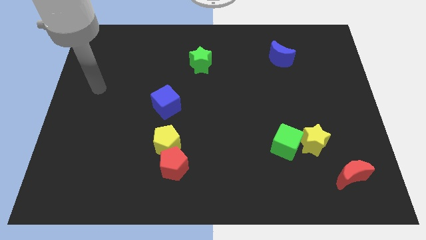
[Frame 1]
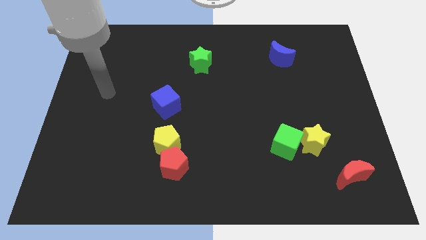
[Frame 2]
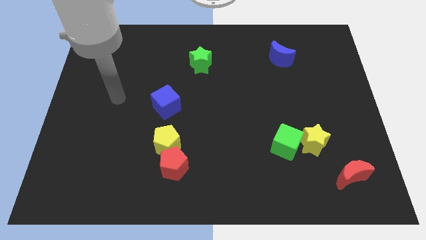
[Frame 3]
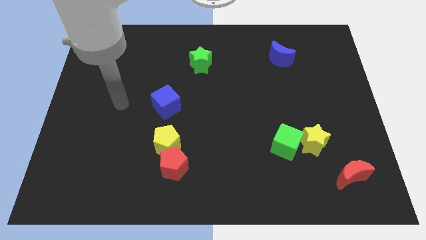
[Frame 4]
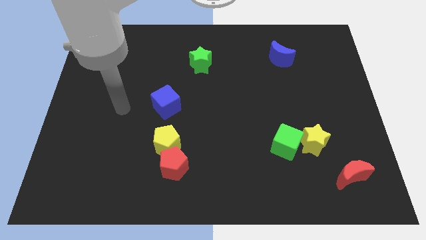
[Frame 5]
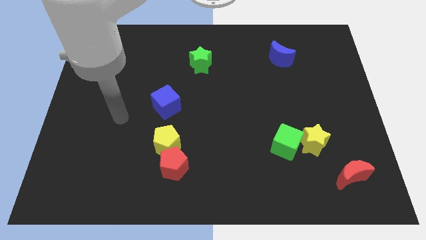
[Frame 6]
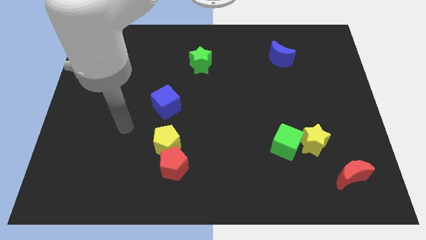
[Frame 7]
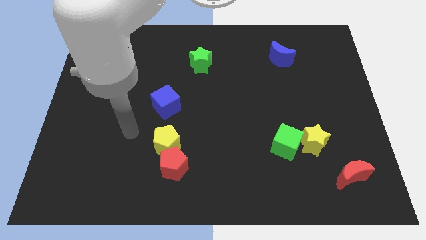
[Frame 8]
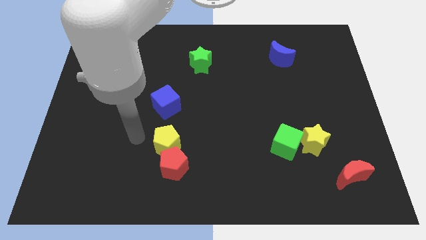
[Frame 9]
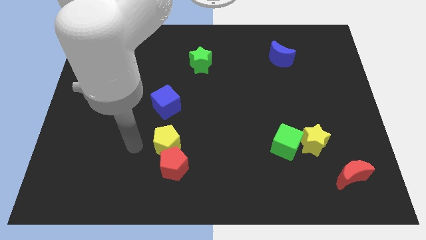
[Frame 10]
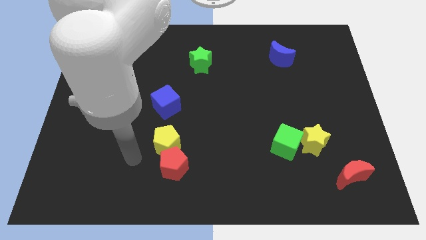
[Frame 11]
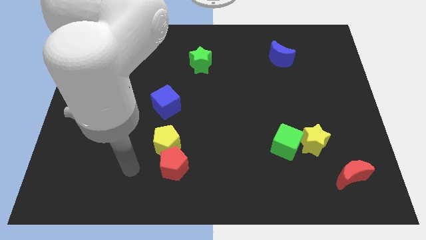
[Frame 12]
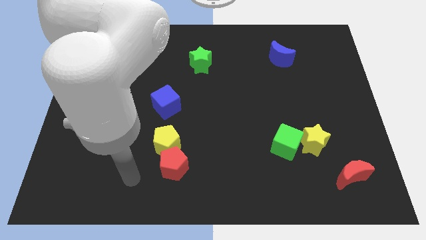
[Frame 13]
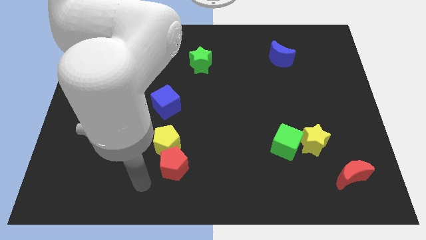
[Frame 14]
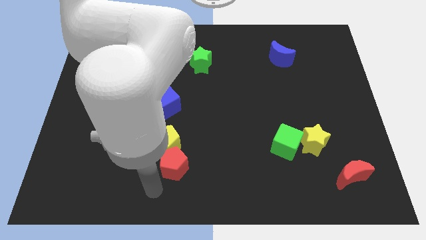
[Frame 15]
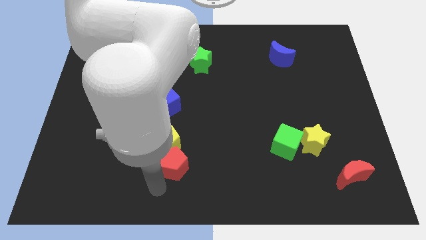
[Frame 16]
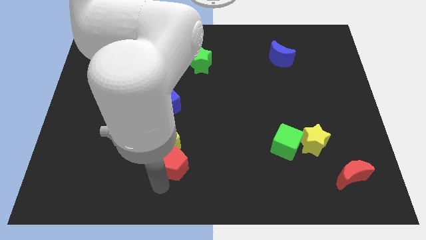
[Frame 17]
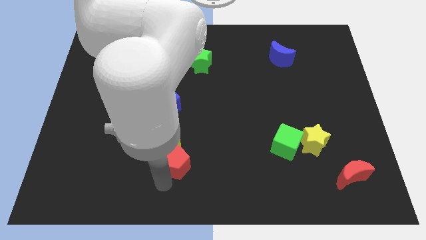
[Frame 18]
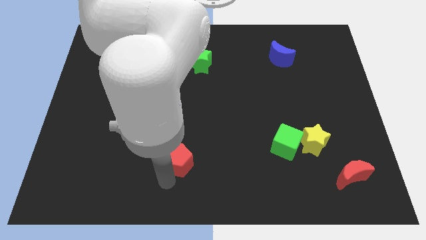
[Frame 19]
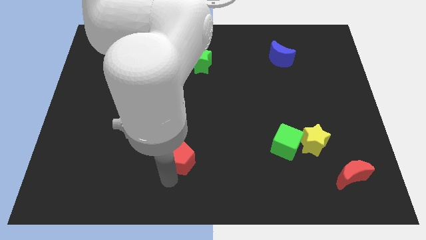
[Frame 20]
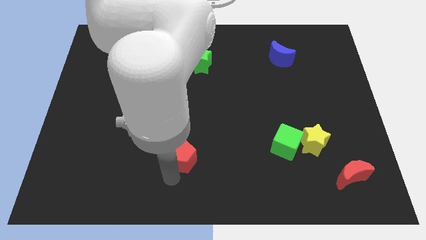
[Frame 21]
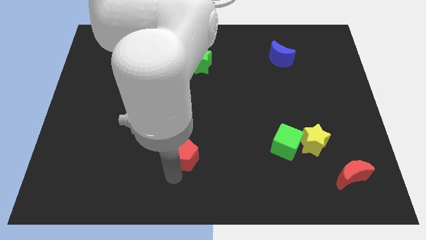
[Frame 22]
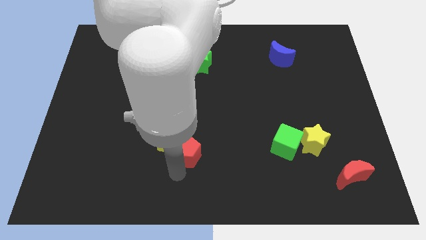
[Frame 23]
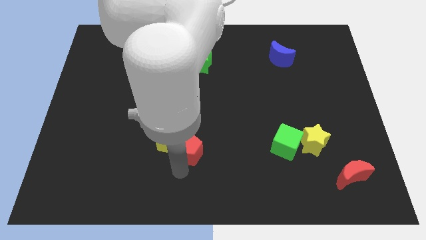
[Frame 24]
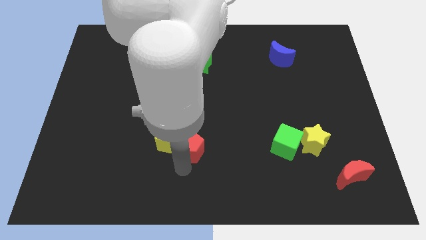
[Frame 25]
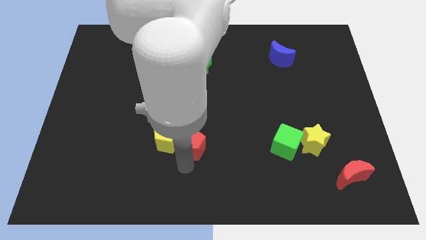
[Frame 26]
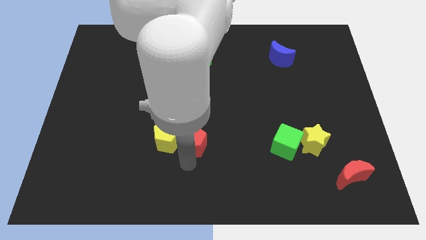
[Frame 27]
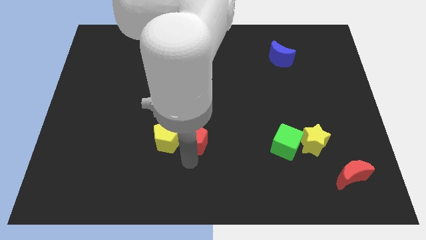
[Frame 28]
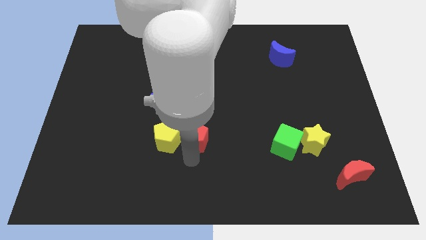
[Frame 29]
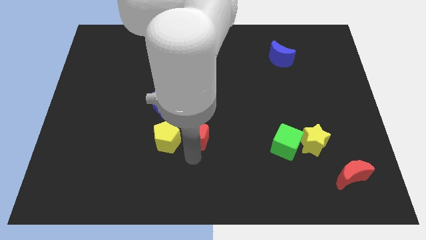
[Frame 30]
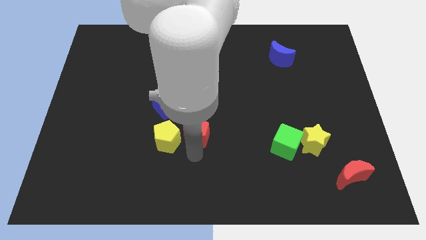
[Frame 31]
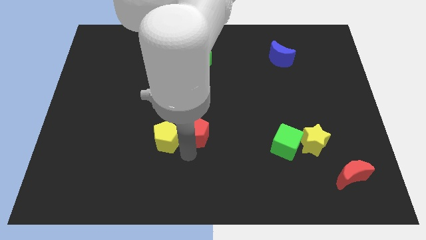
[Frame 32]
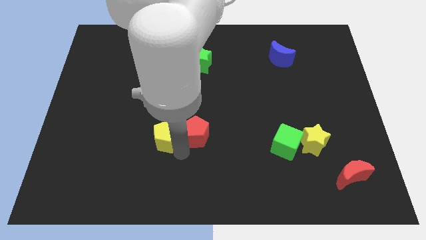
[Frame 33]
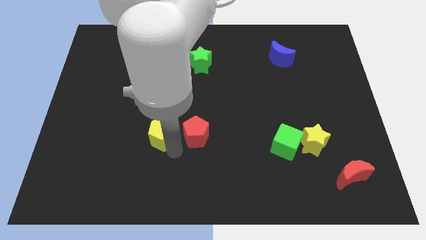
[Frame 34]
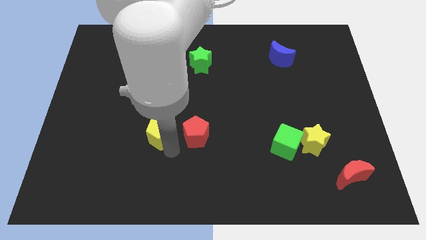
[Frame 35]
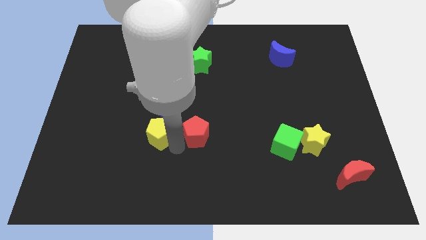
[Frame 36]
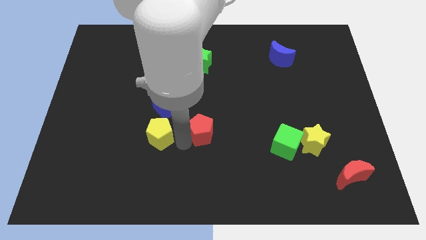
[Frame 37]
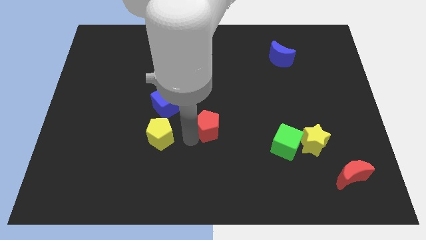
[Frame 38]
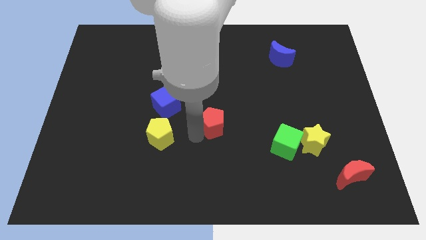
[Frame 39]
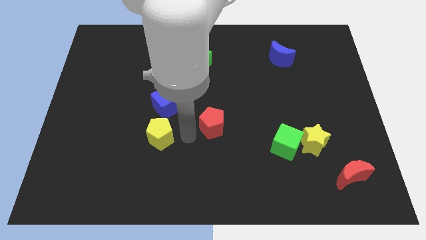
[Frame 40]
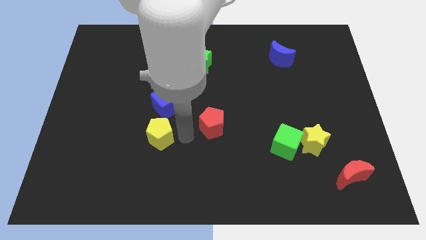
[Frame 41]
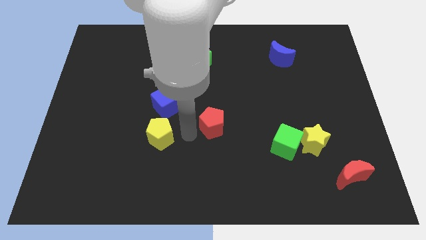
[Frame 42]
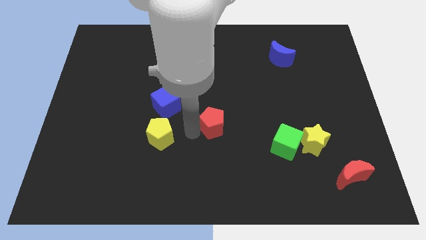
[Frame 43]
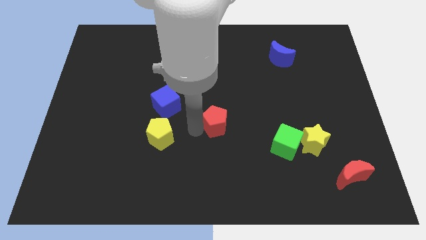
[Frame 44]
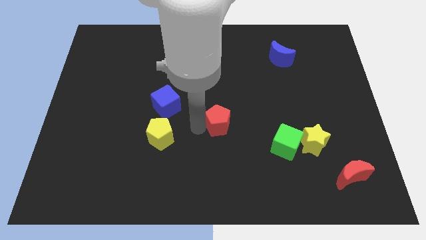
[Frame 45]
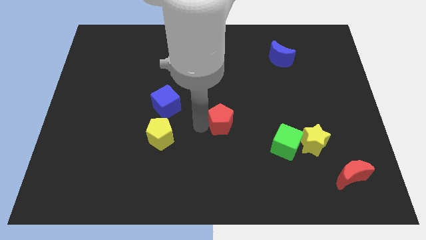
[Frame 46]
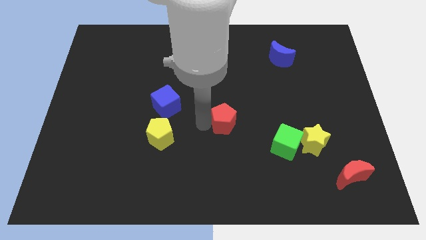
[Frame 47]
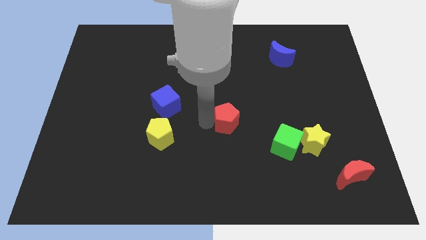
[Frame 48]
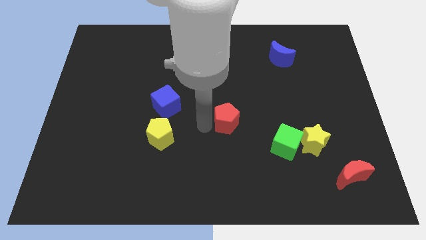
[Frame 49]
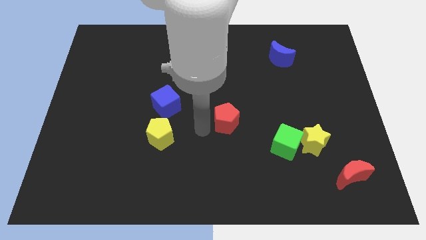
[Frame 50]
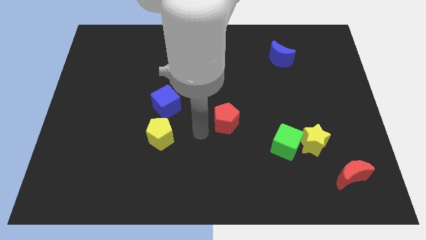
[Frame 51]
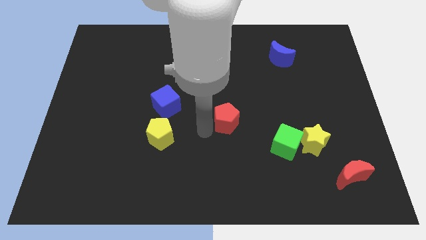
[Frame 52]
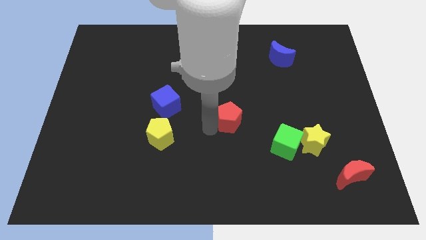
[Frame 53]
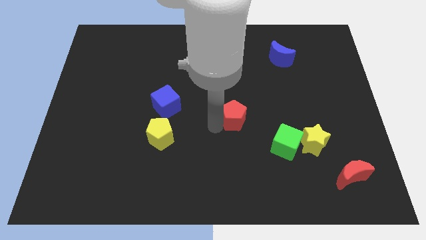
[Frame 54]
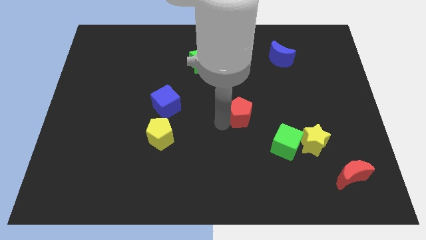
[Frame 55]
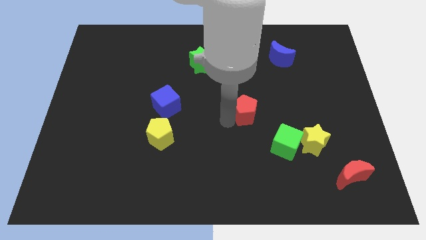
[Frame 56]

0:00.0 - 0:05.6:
slide the red pentagon upwards and to the right diagonally

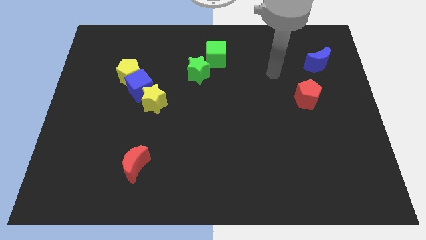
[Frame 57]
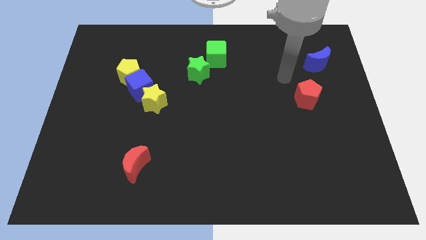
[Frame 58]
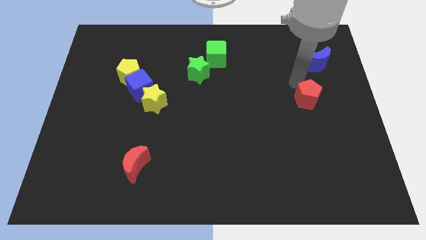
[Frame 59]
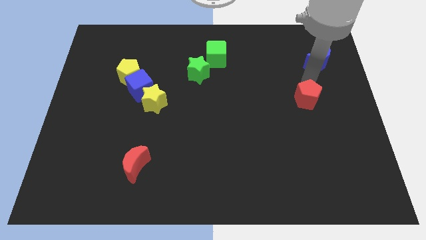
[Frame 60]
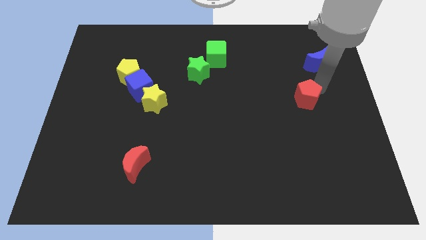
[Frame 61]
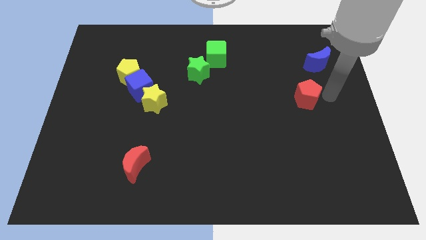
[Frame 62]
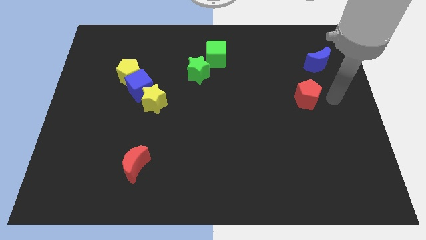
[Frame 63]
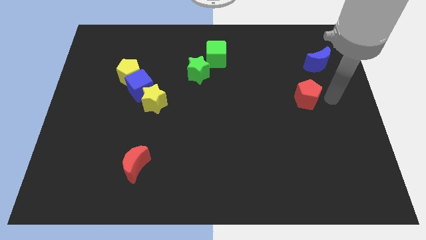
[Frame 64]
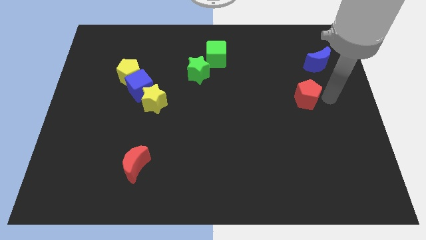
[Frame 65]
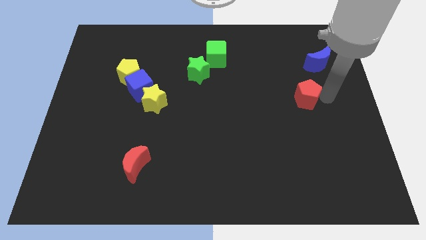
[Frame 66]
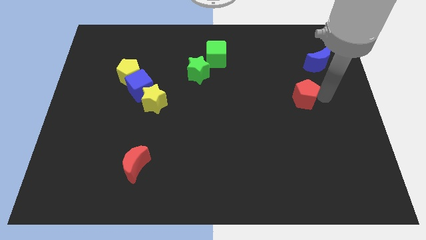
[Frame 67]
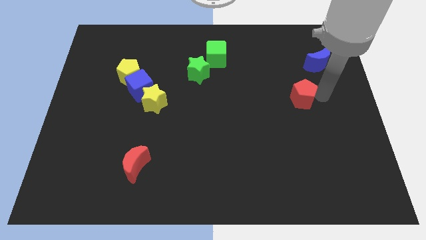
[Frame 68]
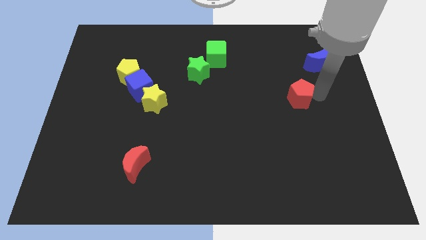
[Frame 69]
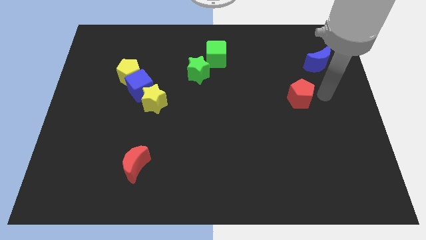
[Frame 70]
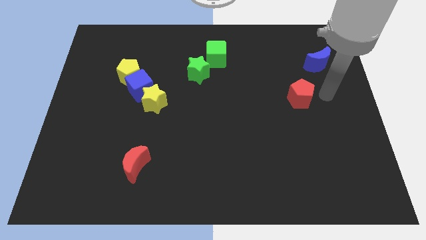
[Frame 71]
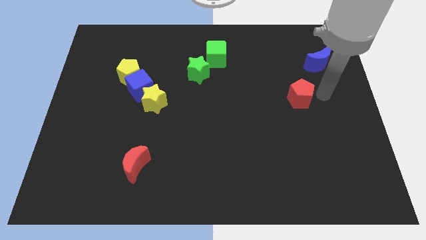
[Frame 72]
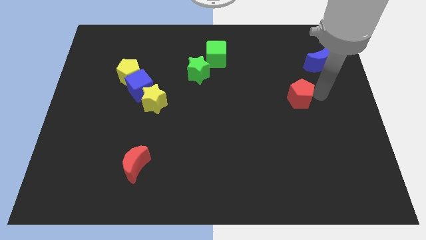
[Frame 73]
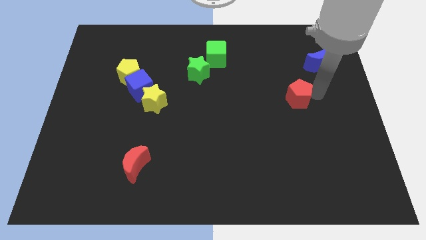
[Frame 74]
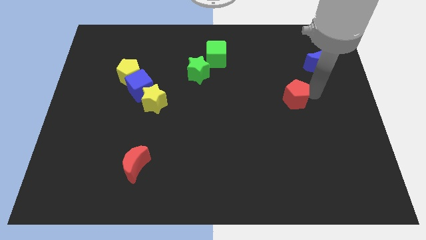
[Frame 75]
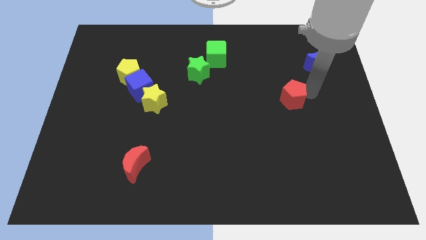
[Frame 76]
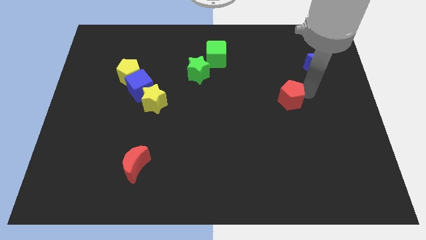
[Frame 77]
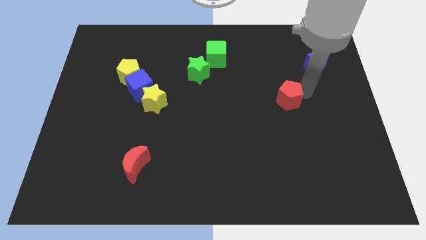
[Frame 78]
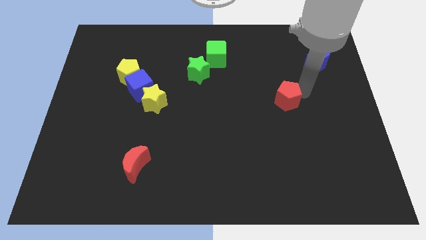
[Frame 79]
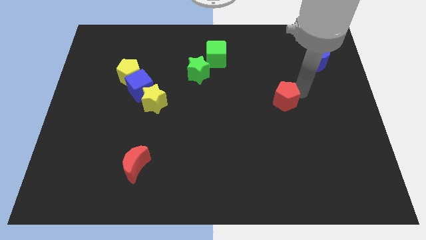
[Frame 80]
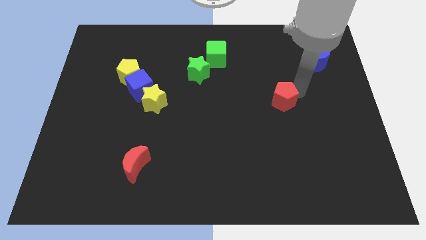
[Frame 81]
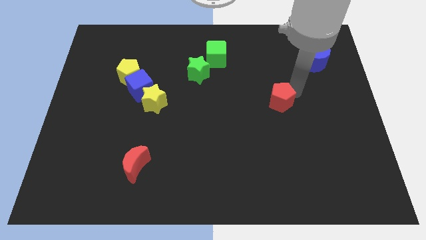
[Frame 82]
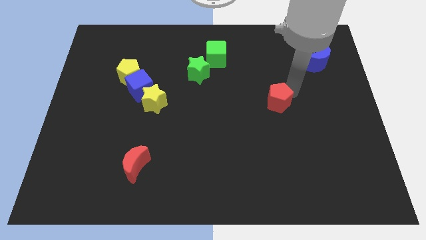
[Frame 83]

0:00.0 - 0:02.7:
slightly slide the red pentagon left

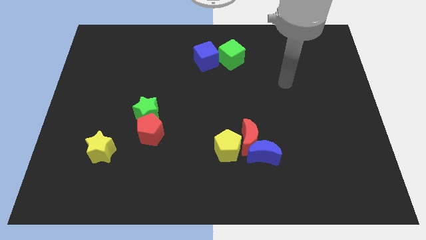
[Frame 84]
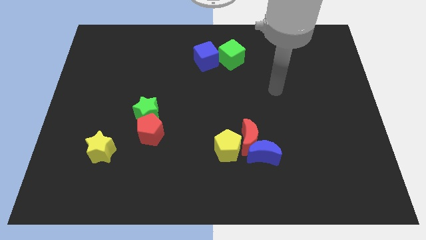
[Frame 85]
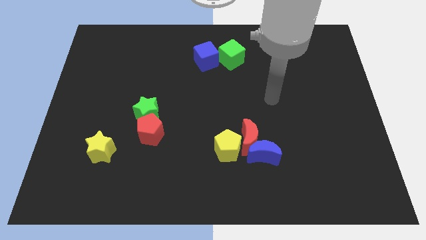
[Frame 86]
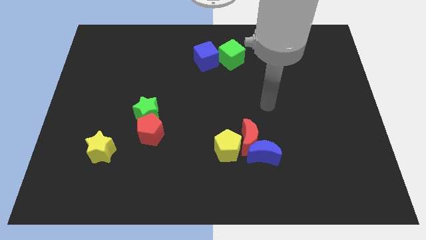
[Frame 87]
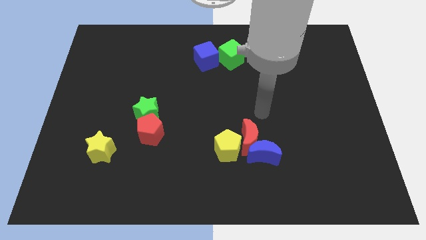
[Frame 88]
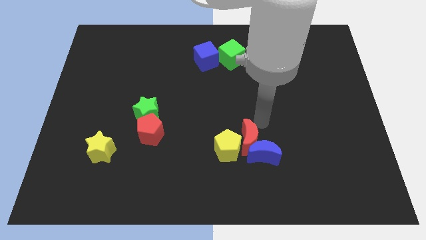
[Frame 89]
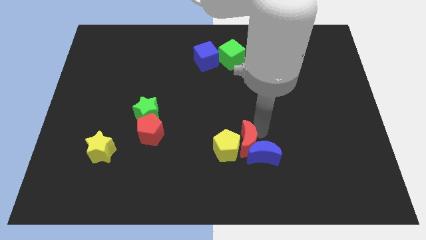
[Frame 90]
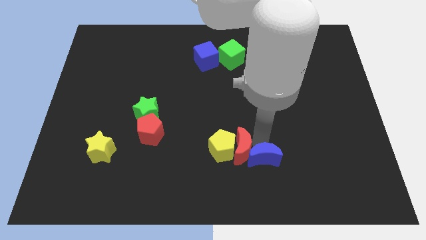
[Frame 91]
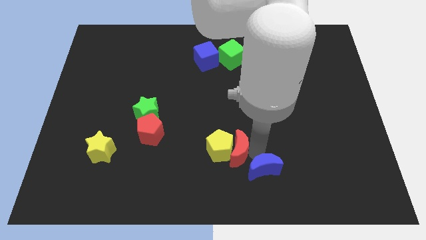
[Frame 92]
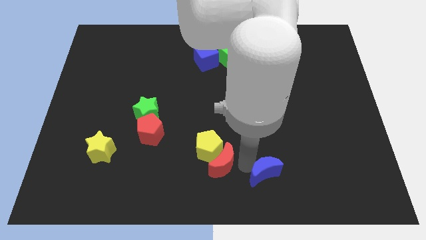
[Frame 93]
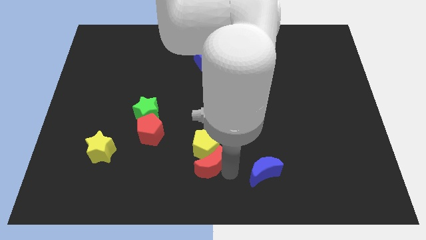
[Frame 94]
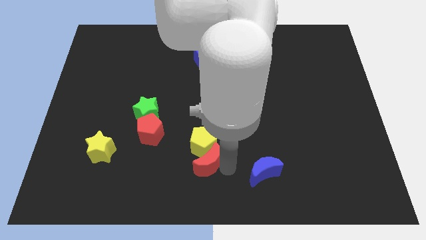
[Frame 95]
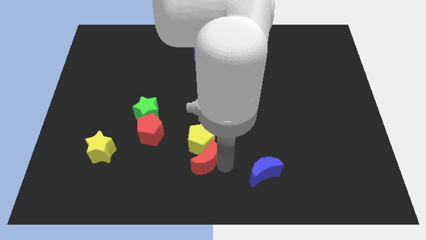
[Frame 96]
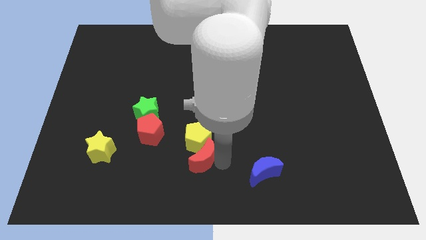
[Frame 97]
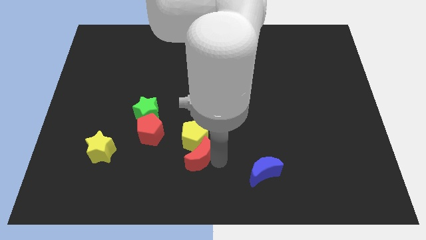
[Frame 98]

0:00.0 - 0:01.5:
slide the yellow pentagon a bit upwards and to the left
